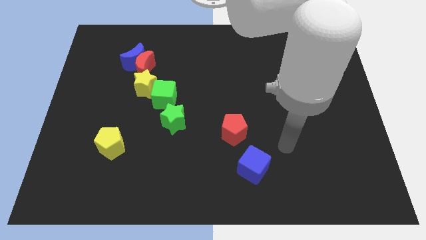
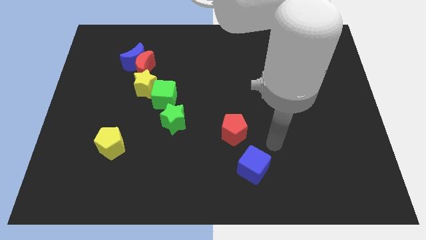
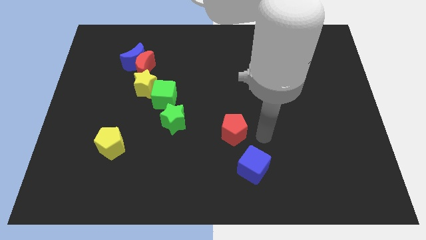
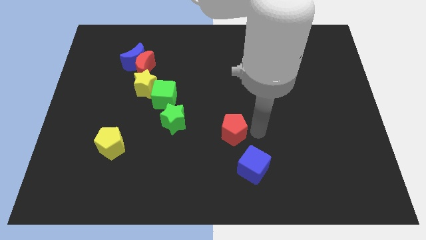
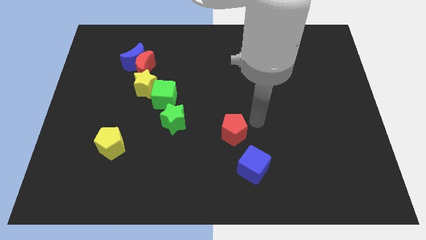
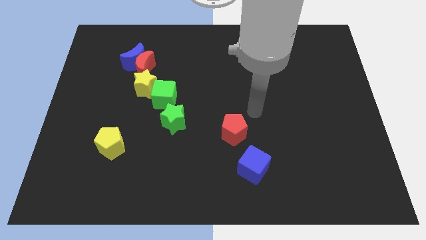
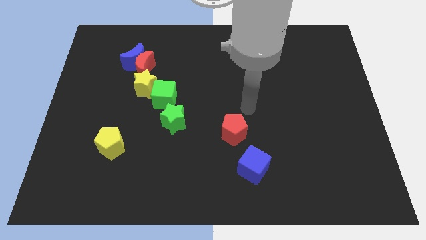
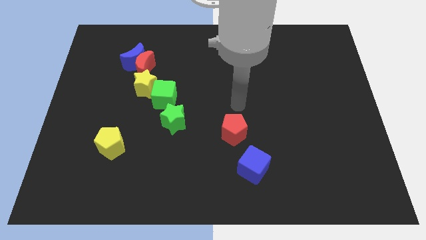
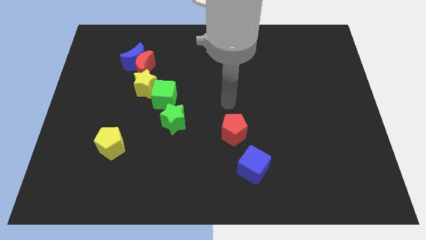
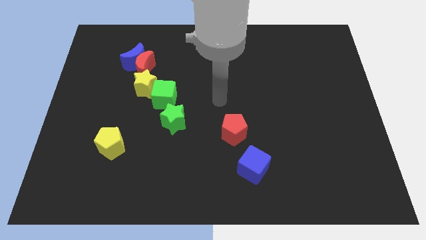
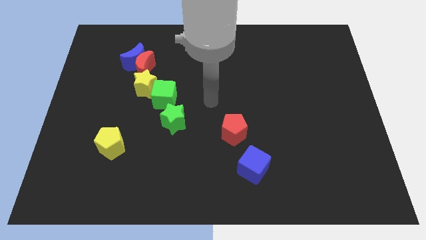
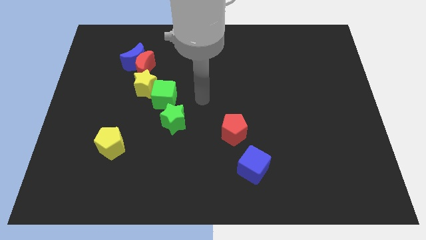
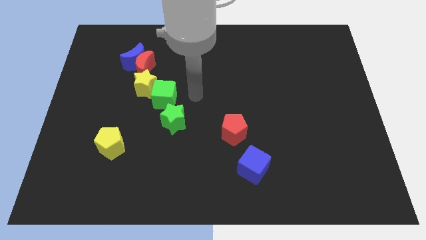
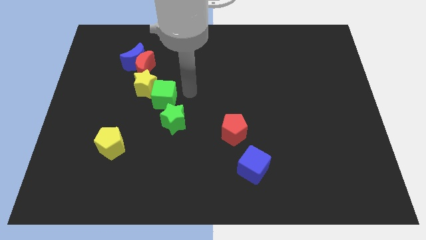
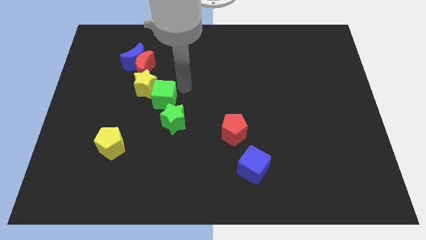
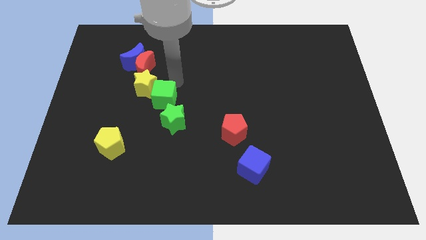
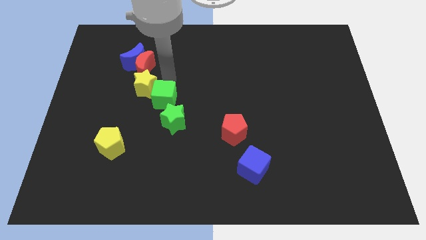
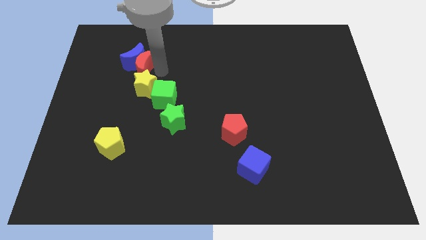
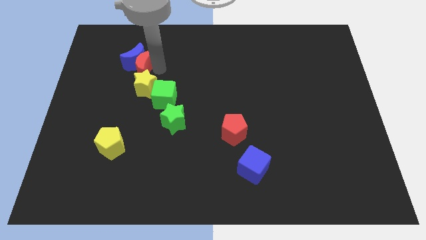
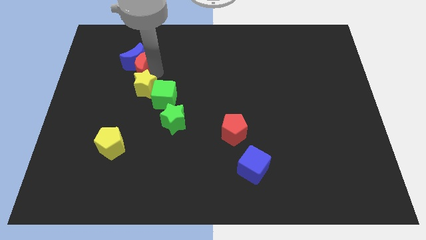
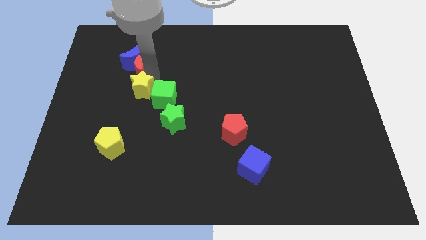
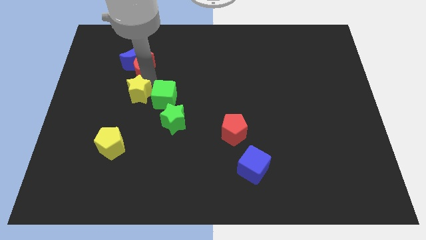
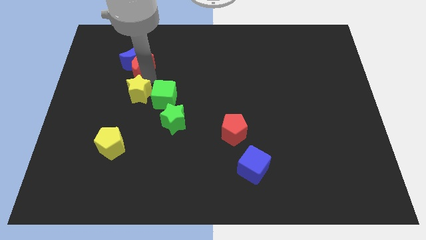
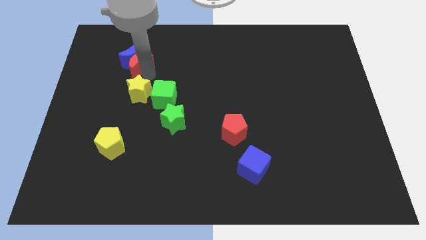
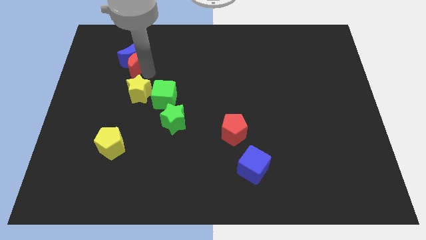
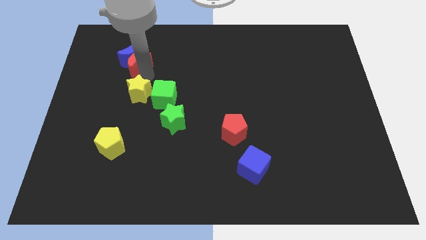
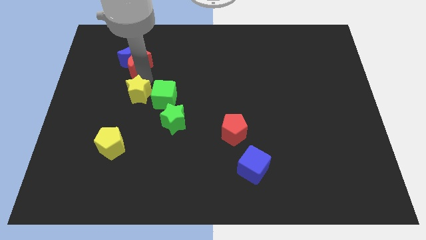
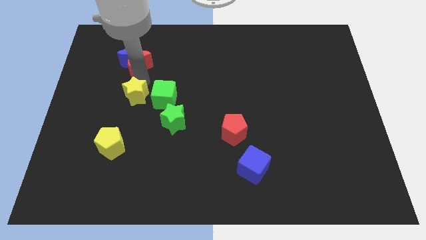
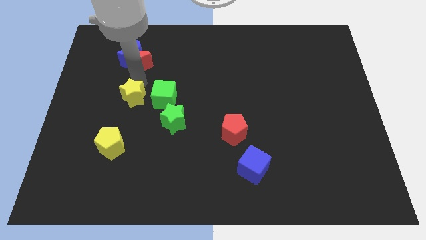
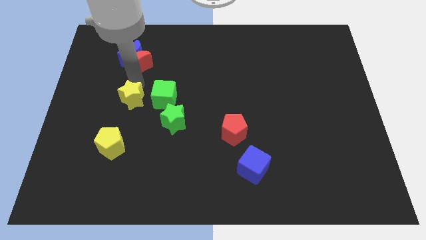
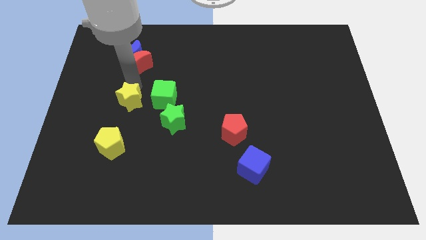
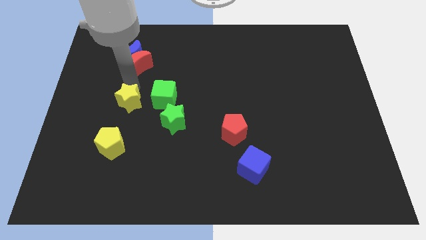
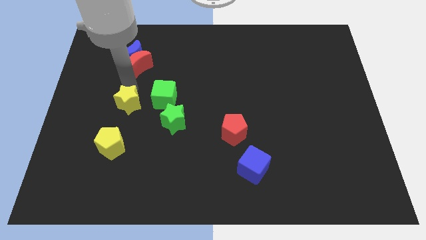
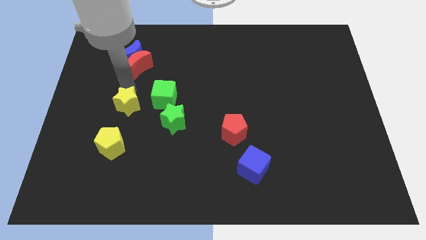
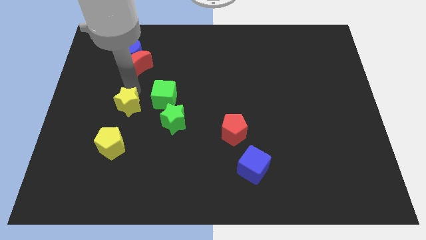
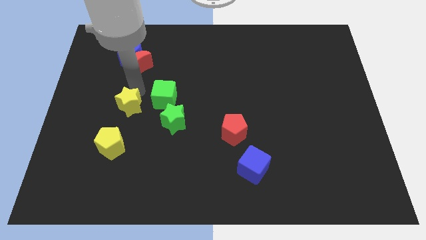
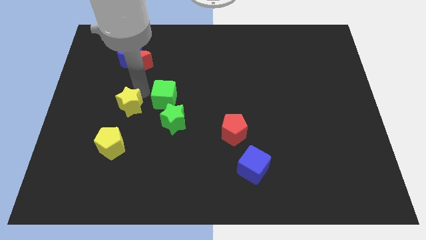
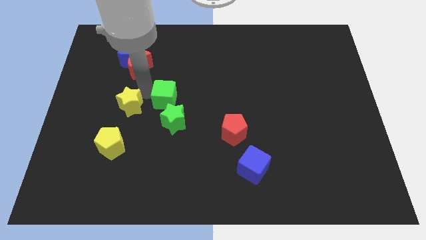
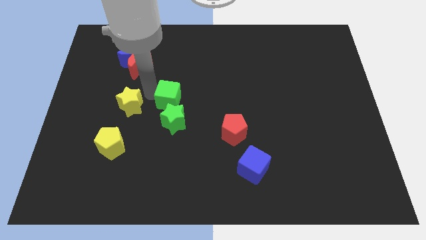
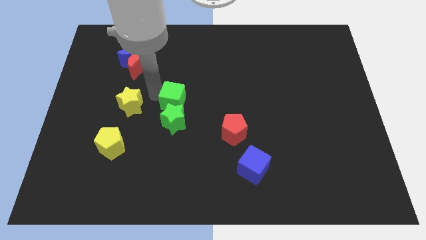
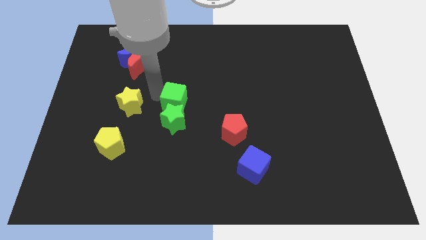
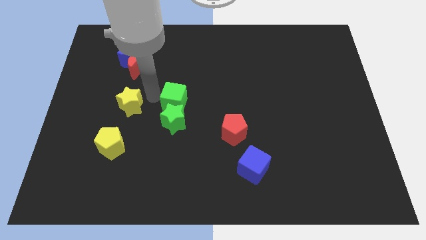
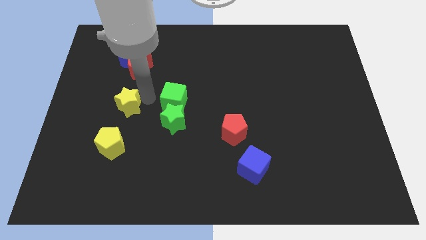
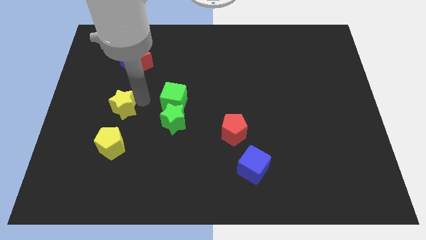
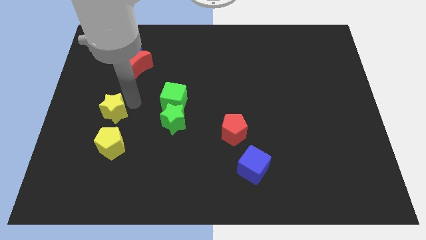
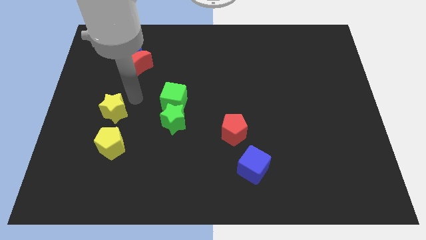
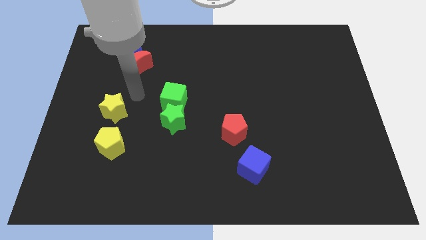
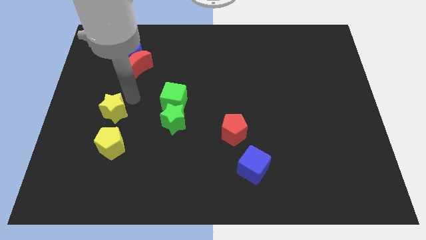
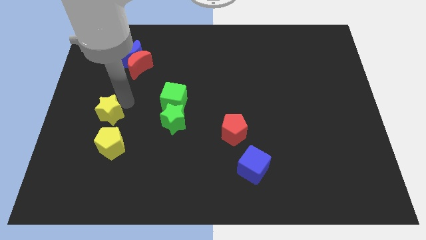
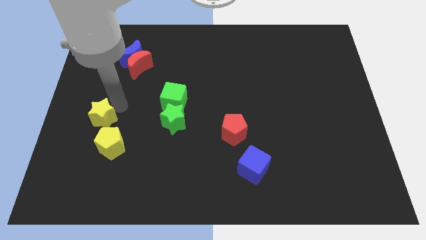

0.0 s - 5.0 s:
move the yellow star to the top left of the yellow pentagon

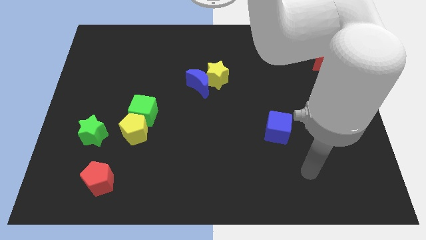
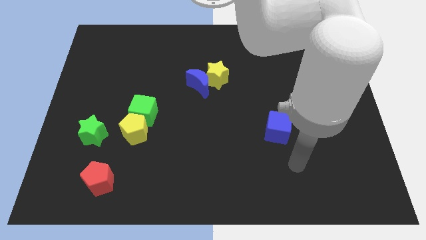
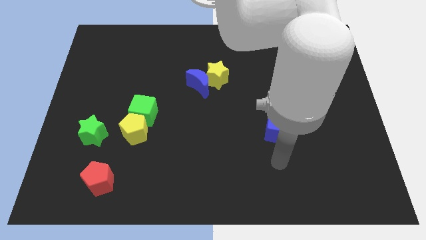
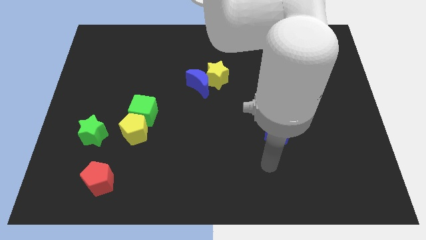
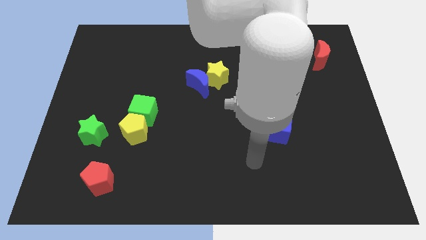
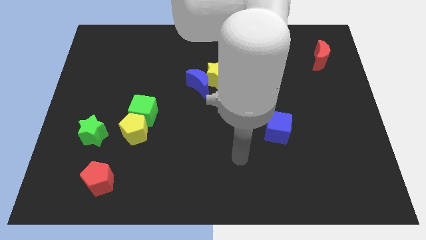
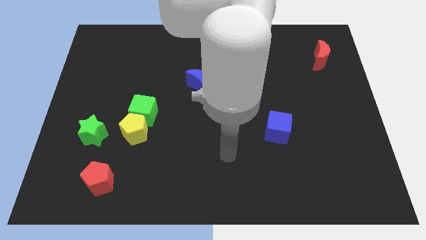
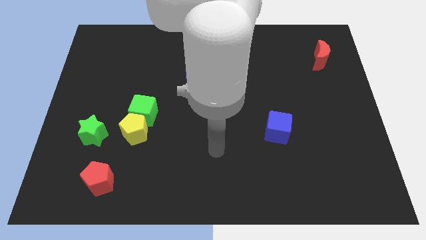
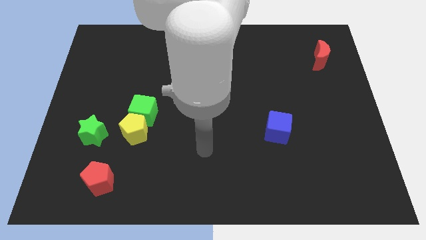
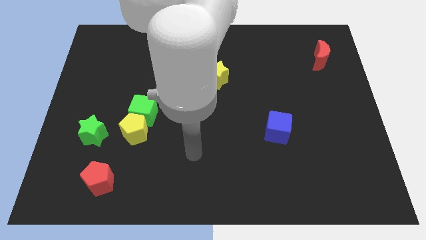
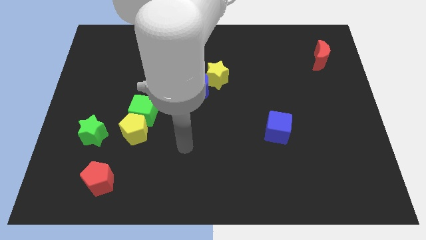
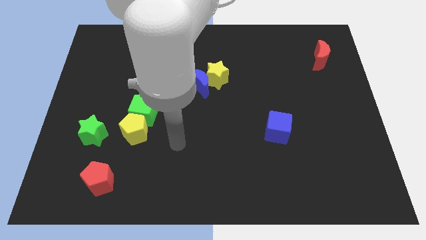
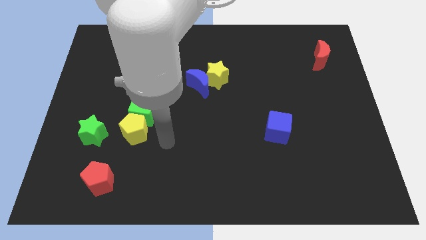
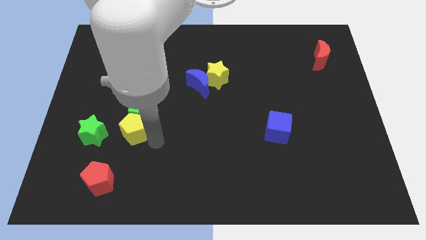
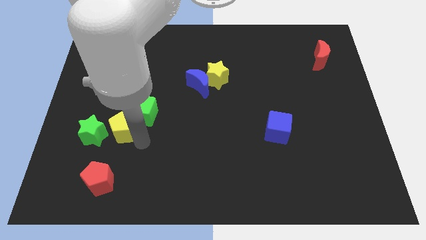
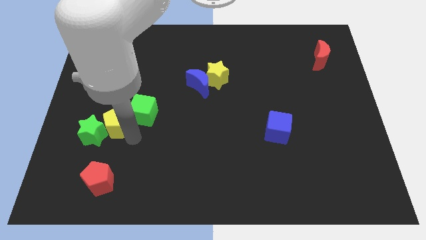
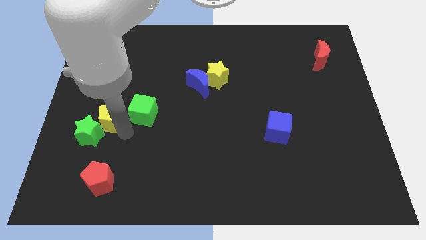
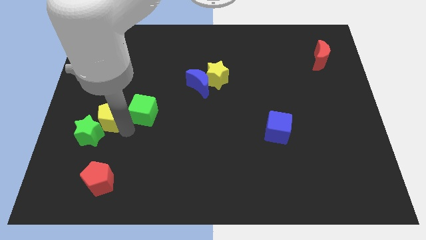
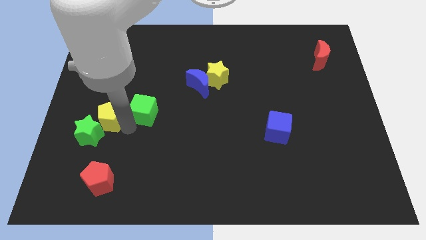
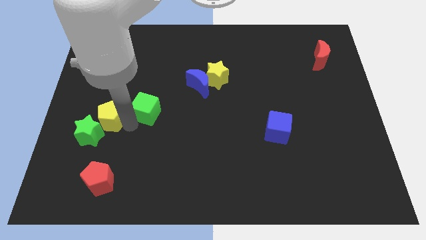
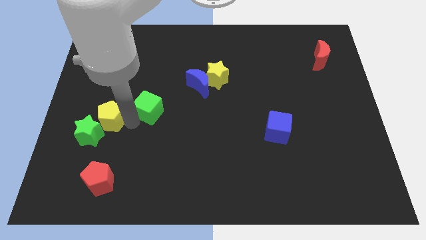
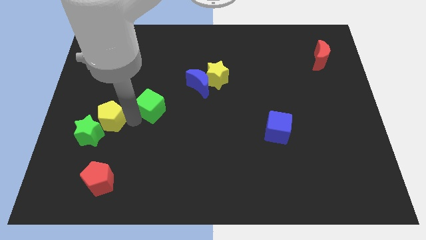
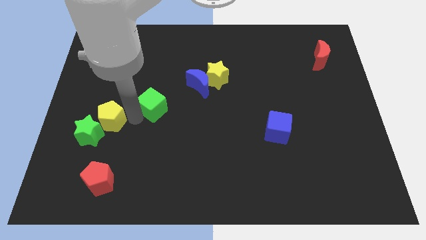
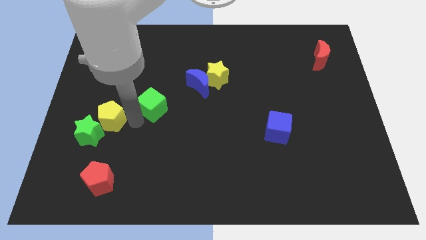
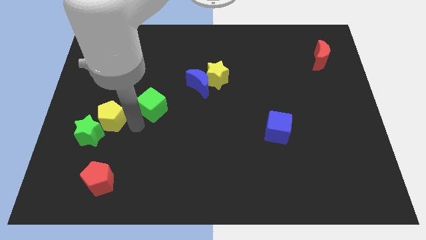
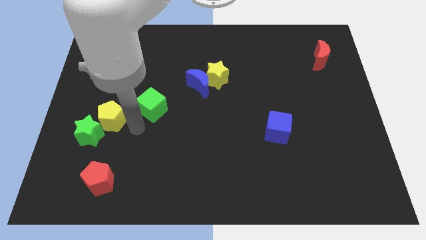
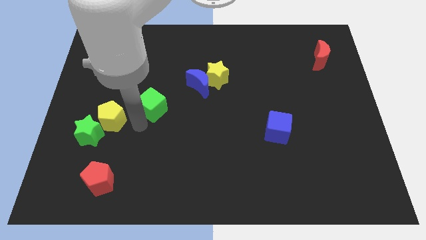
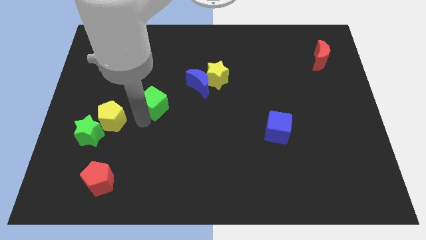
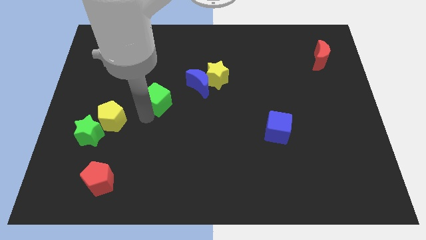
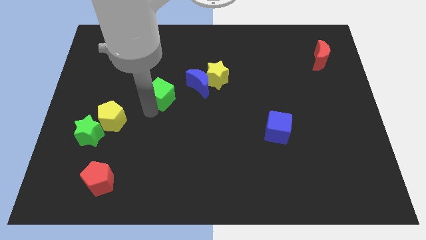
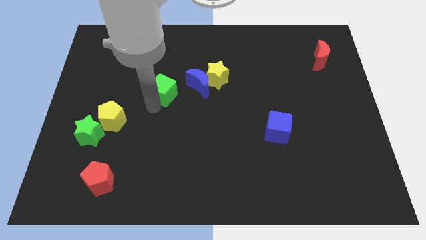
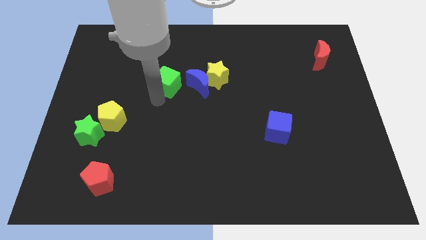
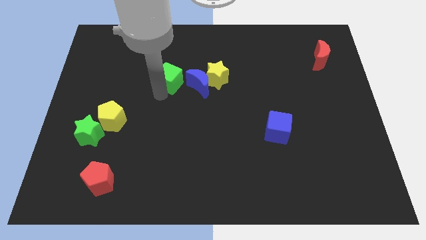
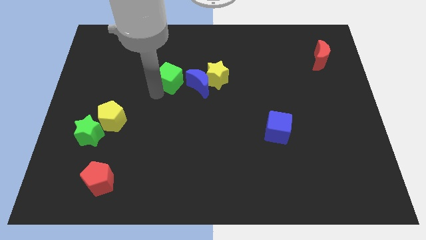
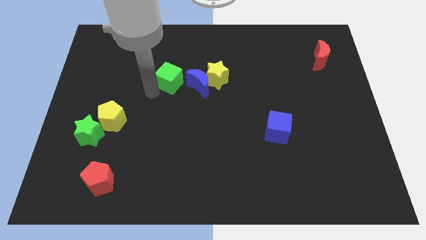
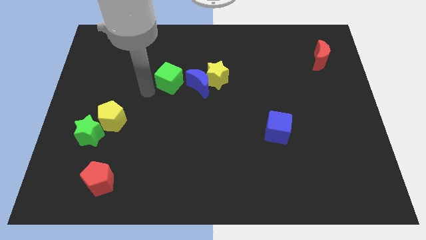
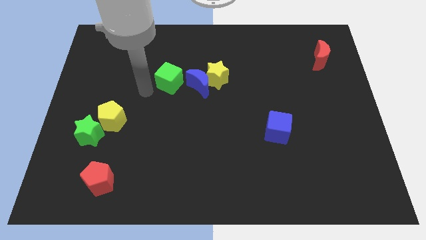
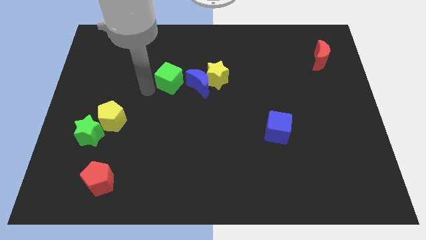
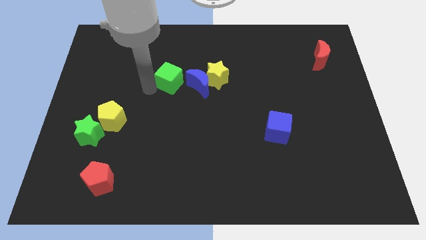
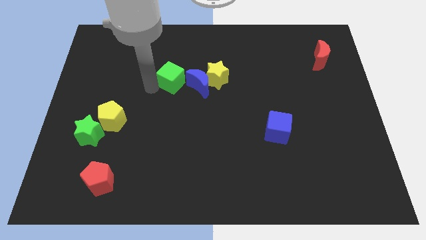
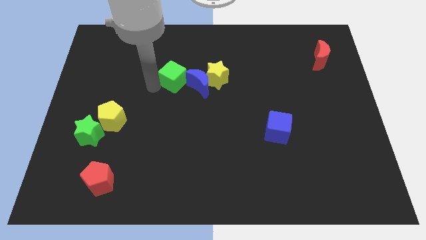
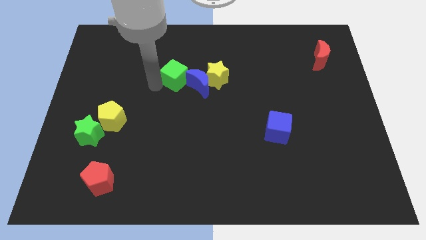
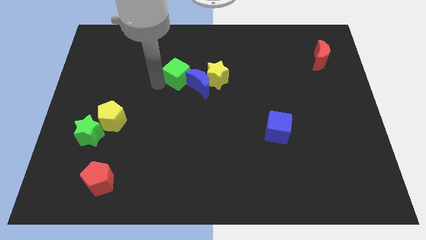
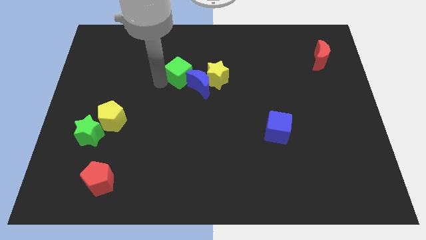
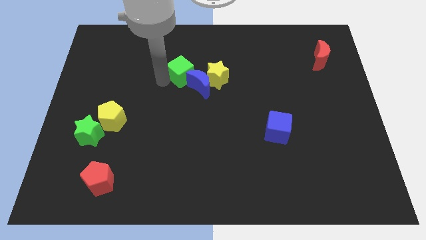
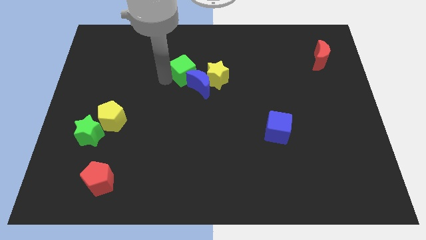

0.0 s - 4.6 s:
slide the green cube to the top left side of the yellow star
